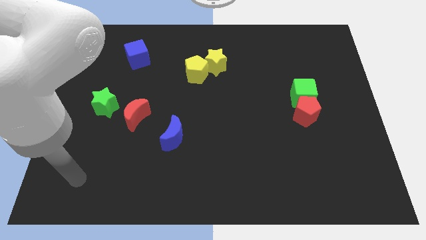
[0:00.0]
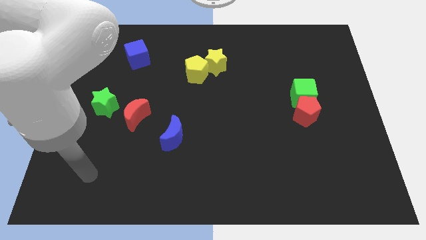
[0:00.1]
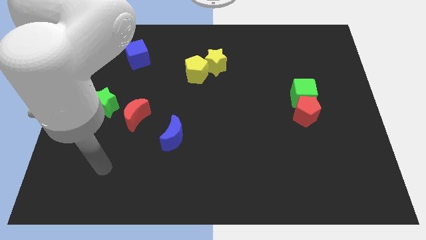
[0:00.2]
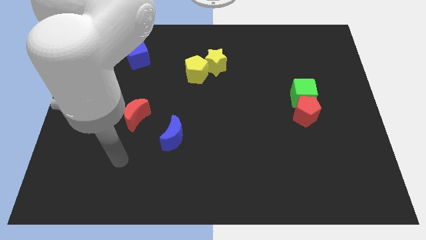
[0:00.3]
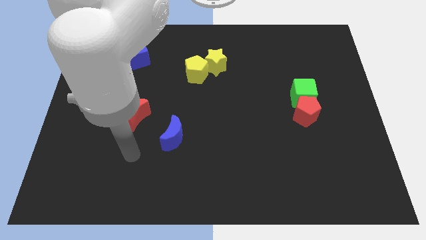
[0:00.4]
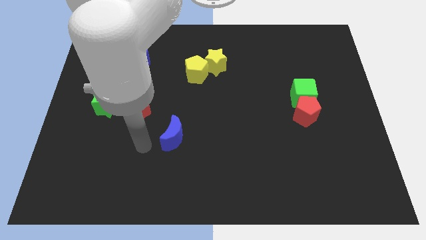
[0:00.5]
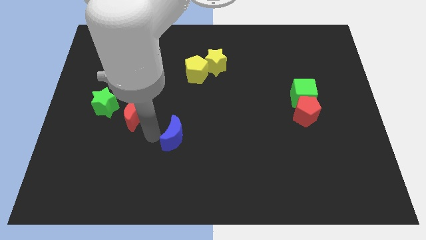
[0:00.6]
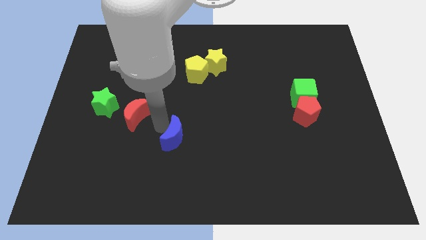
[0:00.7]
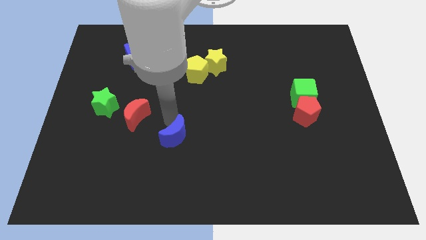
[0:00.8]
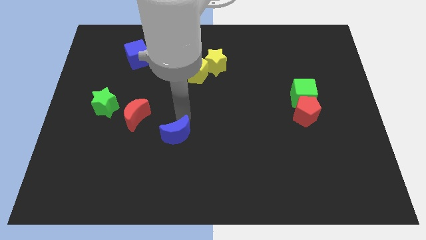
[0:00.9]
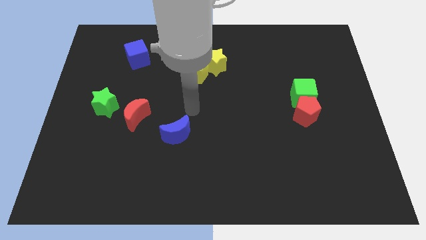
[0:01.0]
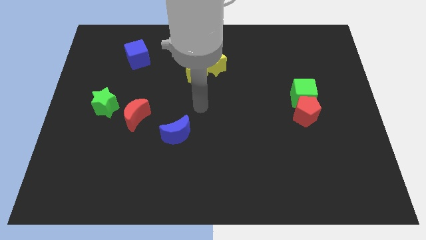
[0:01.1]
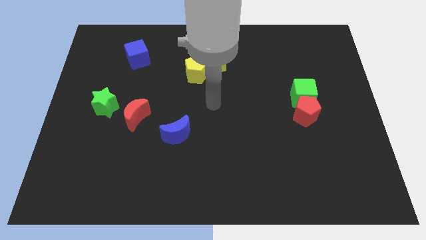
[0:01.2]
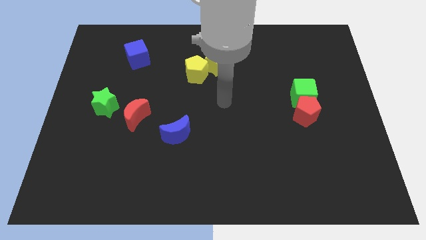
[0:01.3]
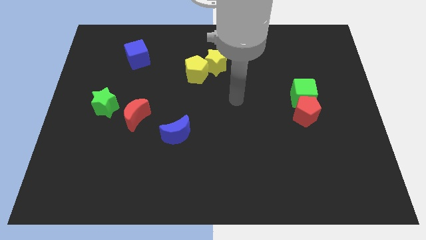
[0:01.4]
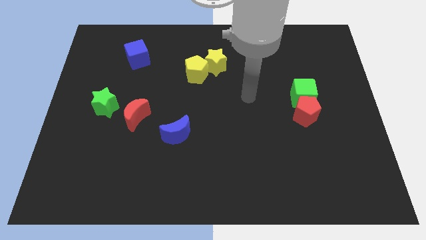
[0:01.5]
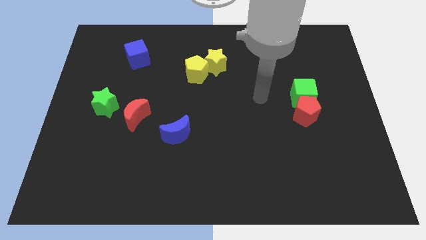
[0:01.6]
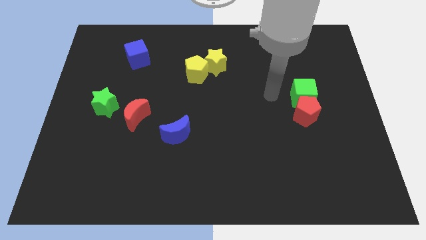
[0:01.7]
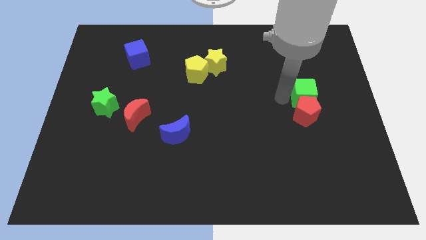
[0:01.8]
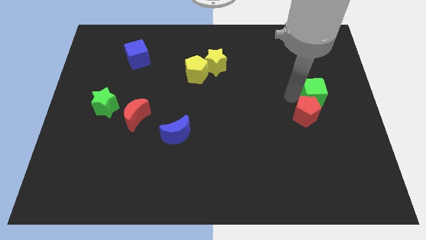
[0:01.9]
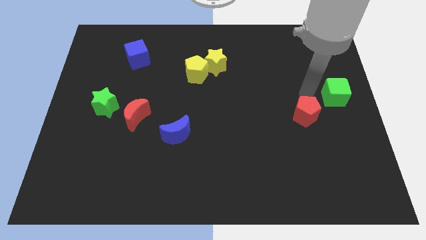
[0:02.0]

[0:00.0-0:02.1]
separate the red pentagon from the green cube

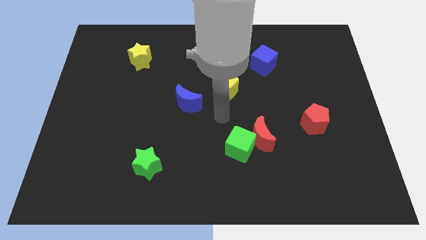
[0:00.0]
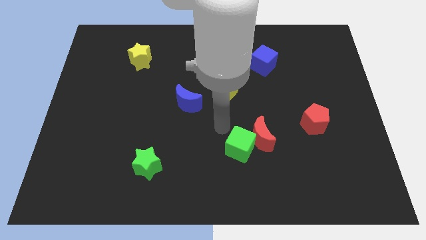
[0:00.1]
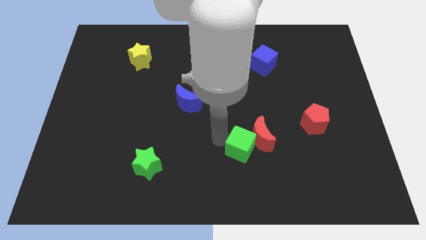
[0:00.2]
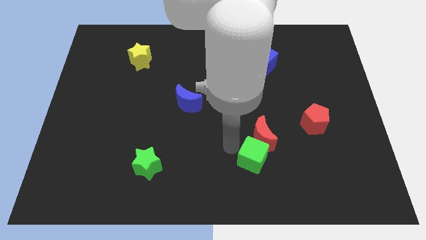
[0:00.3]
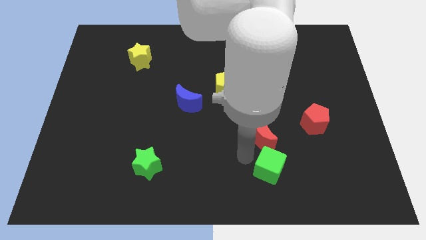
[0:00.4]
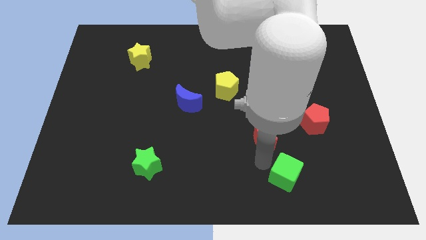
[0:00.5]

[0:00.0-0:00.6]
pull the red moon apart from the green cube

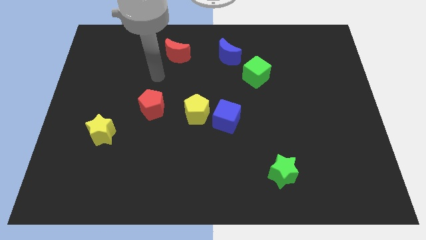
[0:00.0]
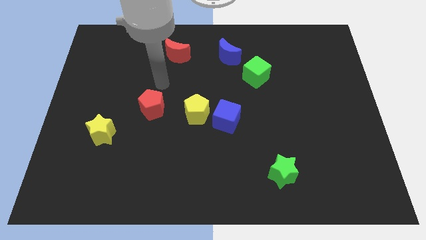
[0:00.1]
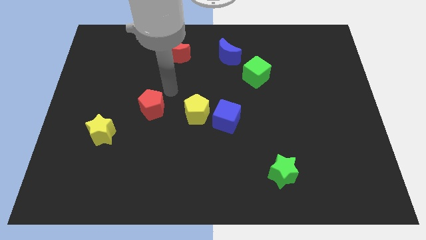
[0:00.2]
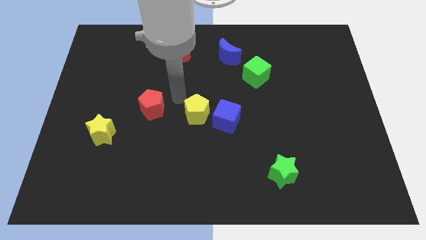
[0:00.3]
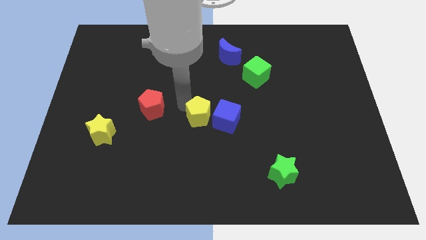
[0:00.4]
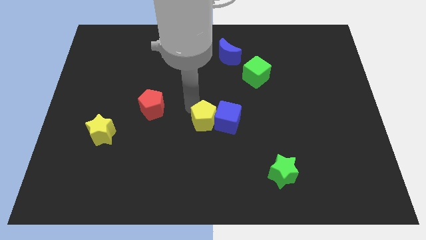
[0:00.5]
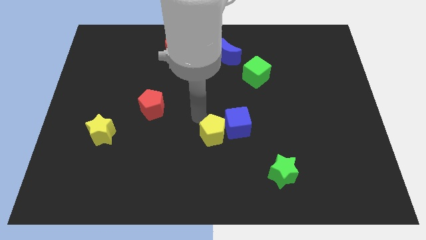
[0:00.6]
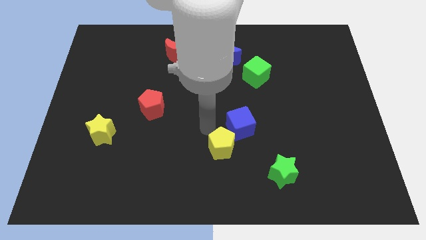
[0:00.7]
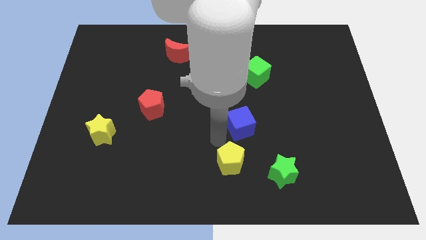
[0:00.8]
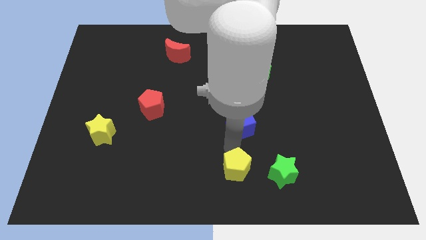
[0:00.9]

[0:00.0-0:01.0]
separate the blue cube from the yellow pentagon

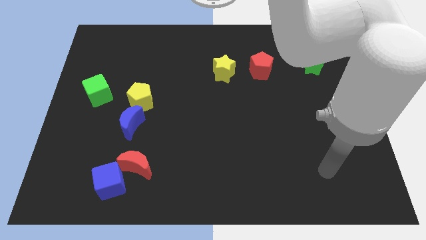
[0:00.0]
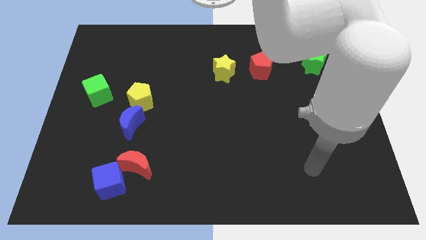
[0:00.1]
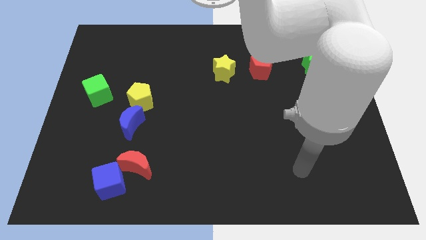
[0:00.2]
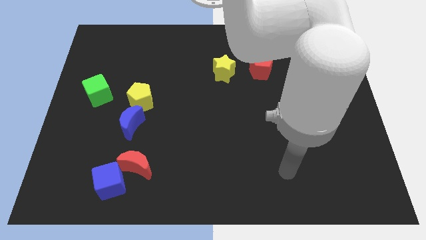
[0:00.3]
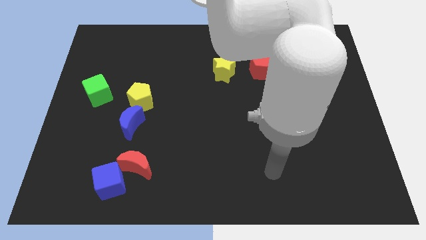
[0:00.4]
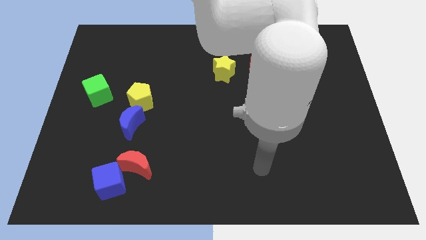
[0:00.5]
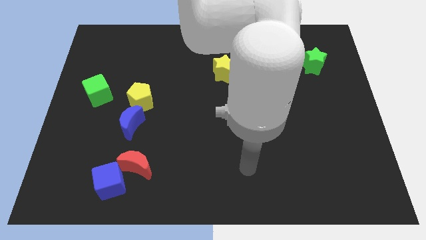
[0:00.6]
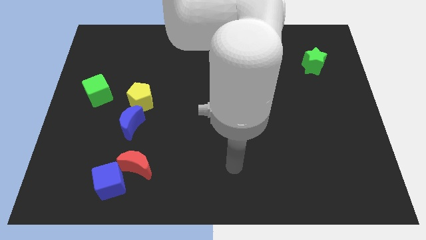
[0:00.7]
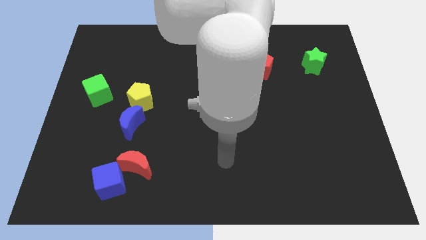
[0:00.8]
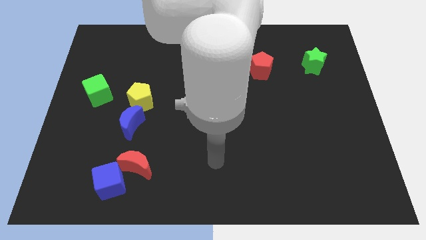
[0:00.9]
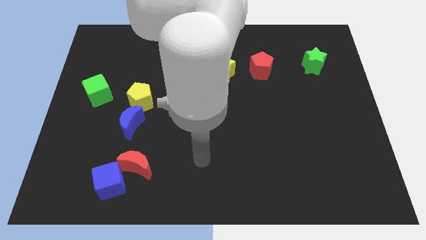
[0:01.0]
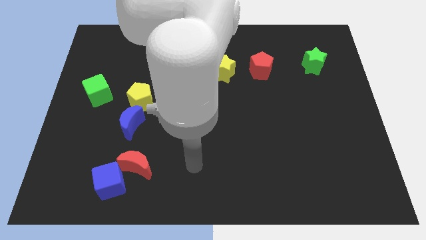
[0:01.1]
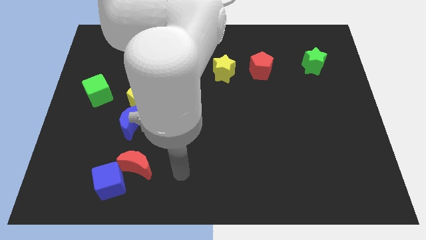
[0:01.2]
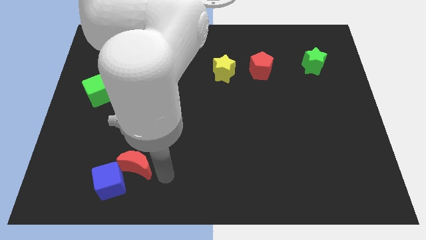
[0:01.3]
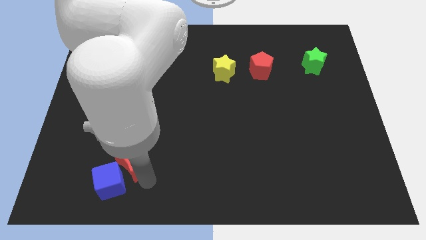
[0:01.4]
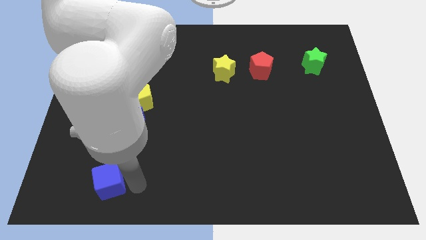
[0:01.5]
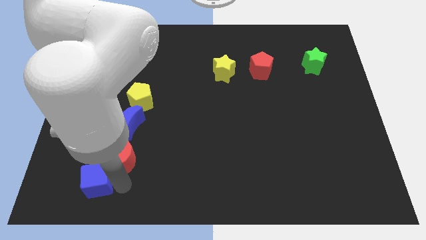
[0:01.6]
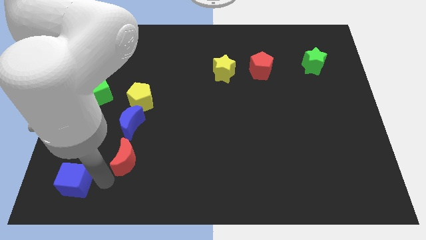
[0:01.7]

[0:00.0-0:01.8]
pull the red moon apart from the blue cube

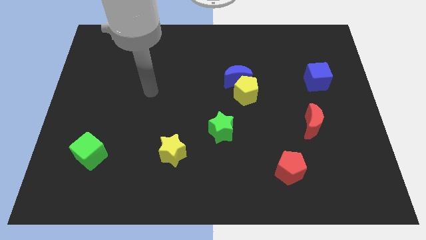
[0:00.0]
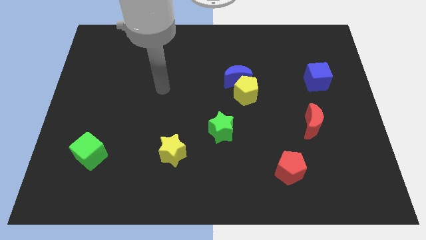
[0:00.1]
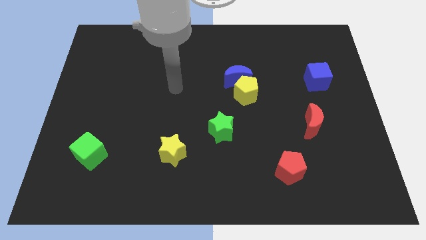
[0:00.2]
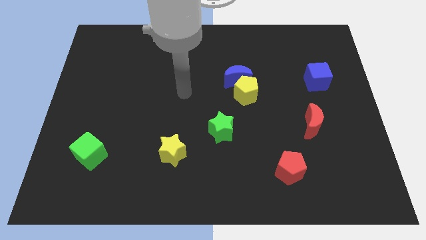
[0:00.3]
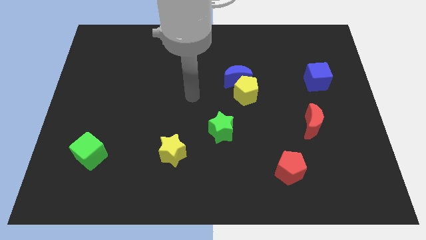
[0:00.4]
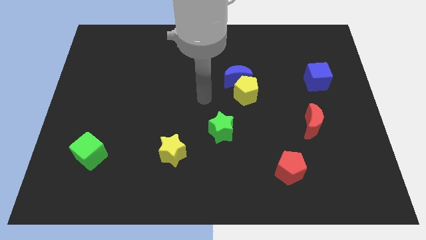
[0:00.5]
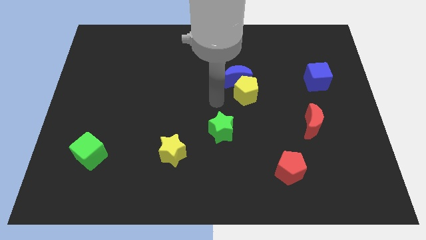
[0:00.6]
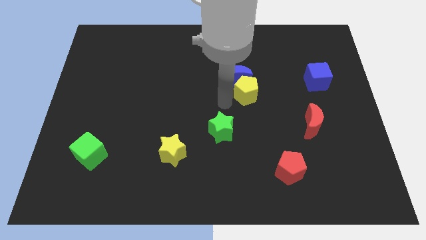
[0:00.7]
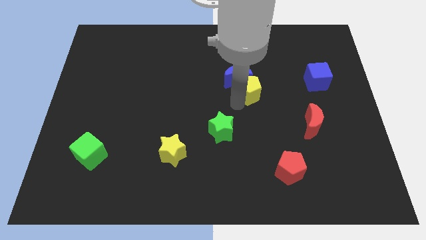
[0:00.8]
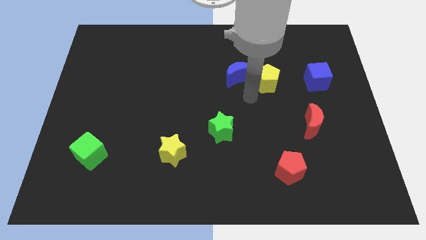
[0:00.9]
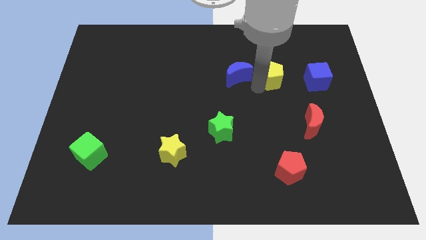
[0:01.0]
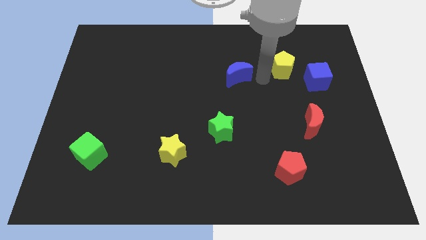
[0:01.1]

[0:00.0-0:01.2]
separate the blue moon from the yellow pentagon

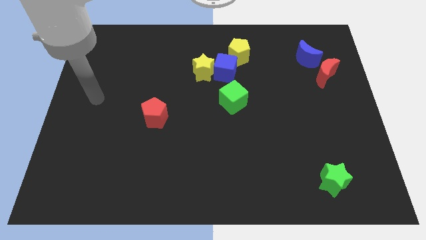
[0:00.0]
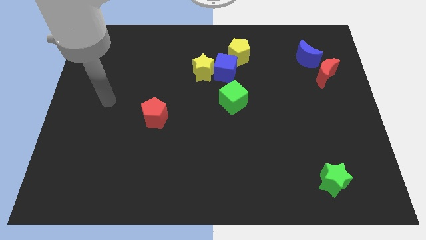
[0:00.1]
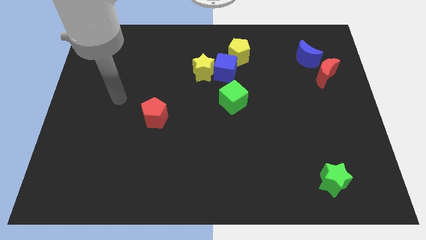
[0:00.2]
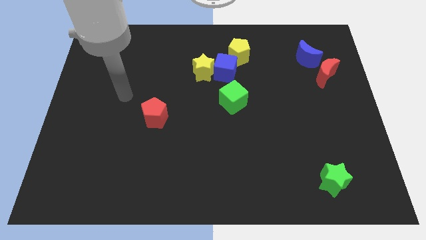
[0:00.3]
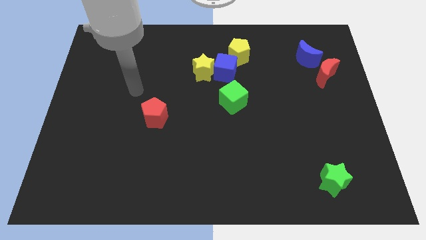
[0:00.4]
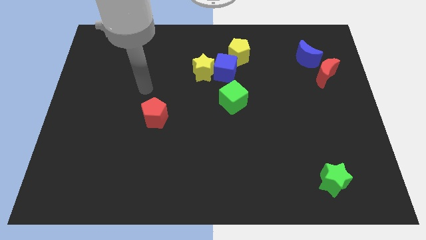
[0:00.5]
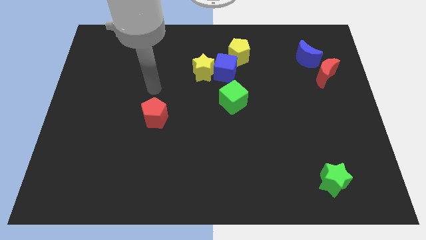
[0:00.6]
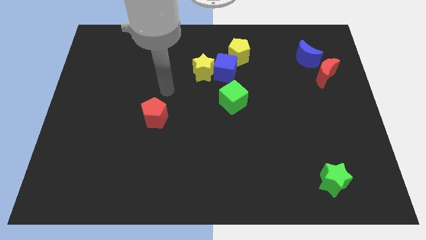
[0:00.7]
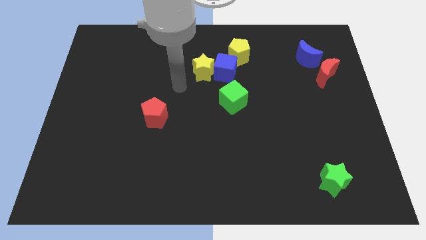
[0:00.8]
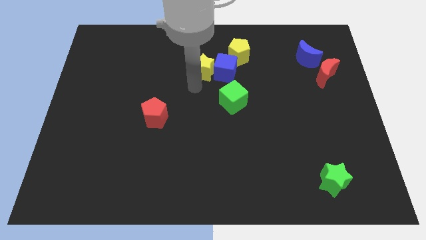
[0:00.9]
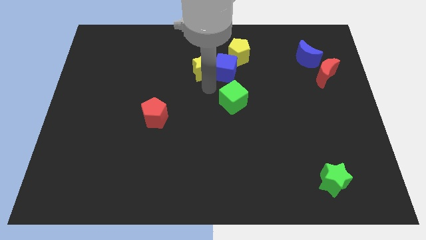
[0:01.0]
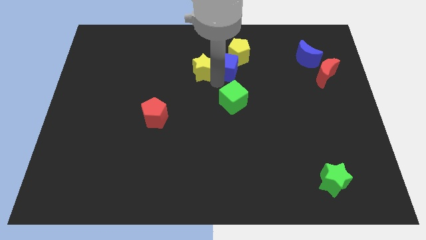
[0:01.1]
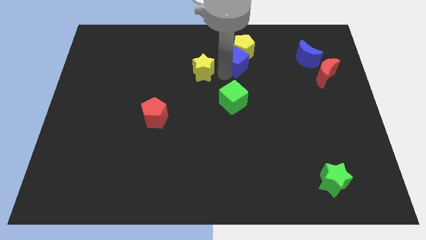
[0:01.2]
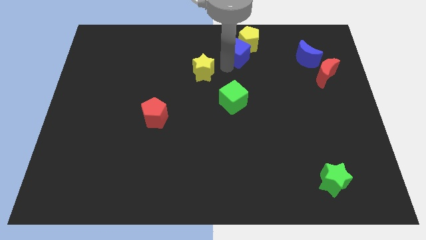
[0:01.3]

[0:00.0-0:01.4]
move the yellow star away from the blue cube

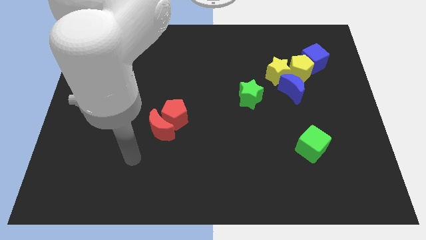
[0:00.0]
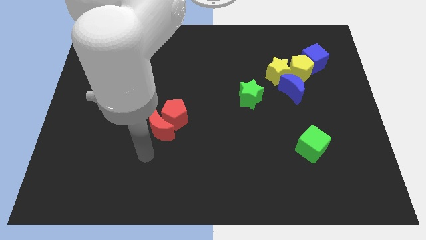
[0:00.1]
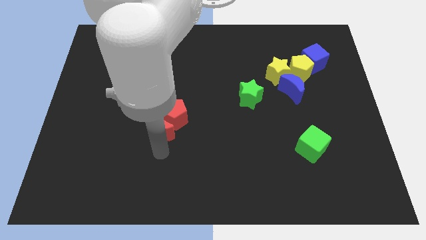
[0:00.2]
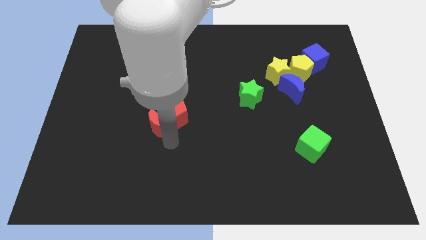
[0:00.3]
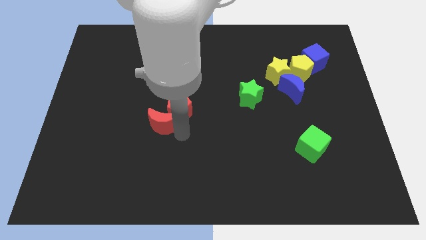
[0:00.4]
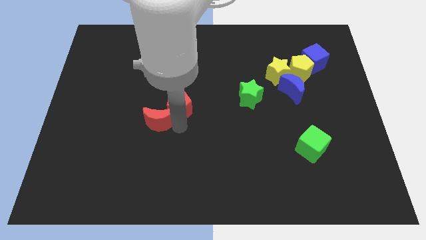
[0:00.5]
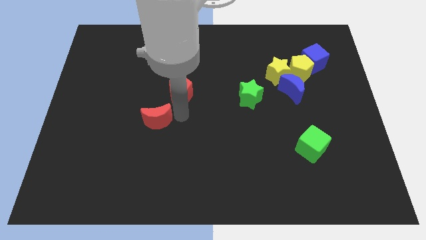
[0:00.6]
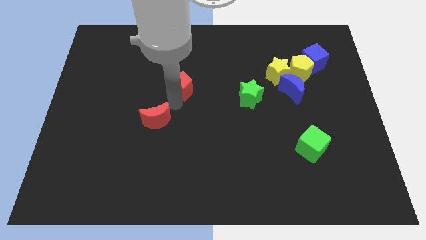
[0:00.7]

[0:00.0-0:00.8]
move the red moon away from the red pentagon

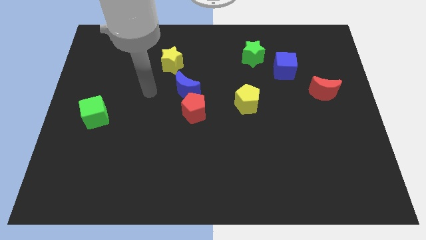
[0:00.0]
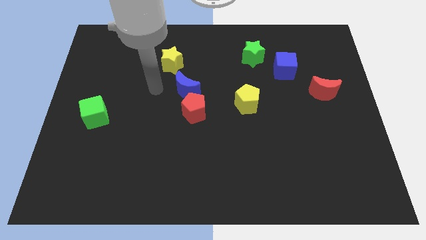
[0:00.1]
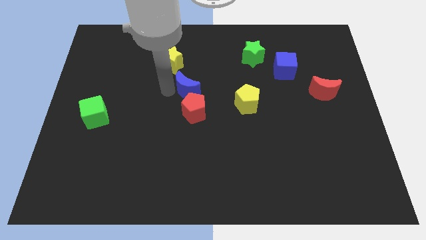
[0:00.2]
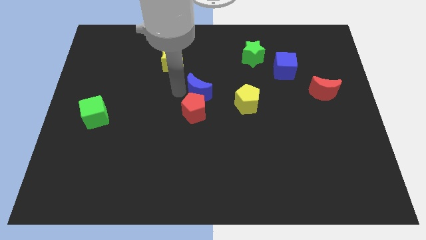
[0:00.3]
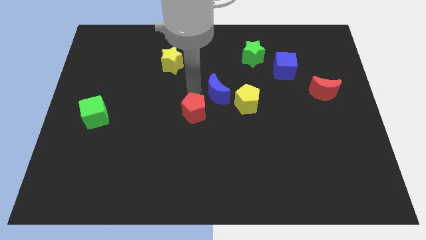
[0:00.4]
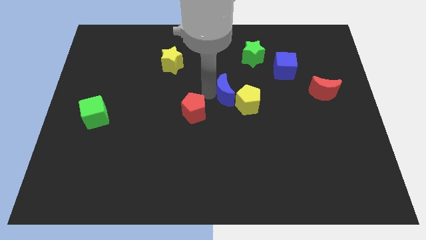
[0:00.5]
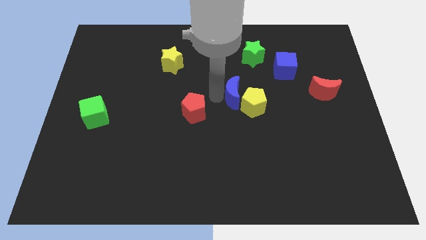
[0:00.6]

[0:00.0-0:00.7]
pull the red pentagon apart from the blue moon
